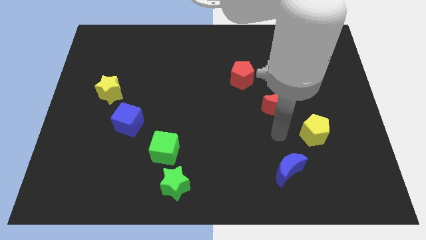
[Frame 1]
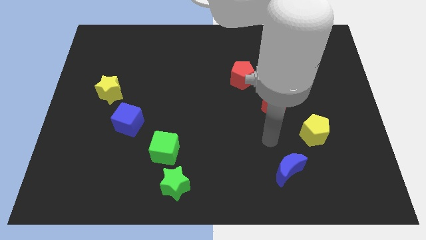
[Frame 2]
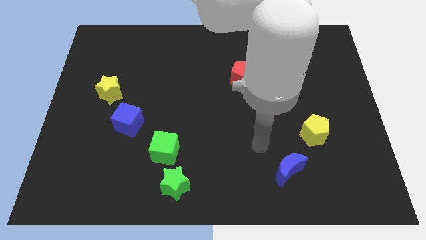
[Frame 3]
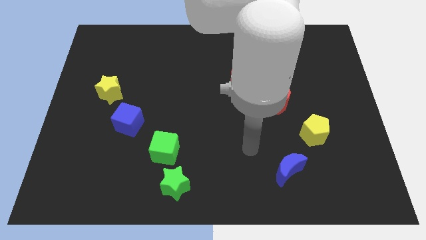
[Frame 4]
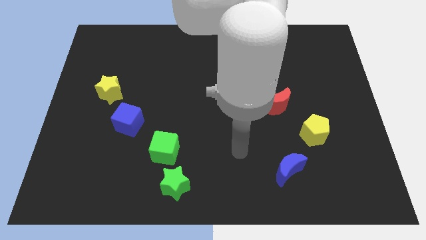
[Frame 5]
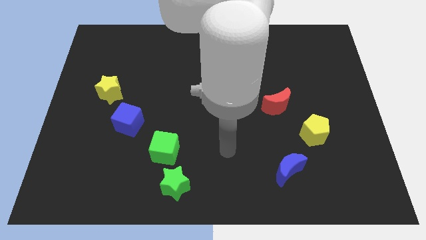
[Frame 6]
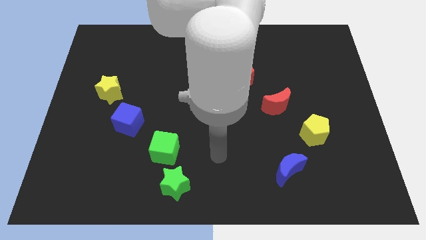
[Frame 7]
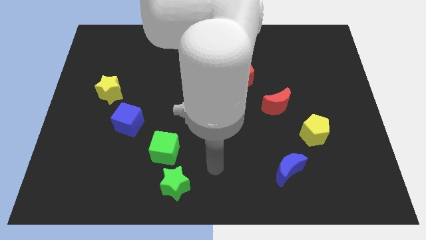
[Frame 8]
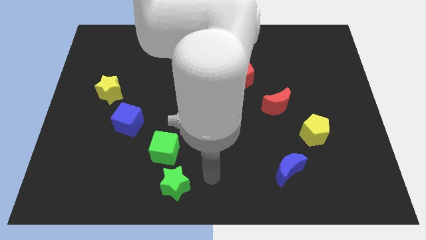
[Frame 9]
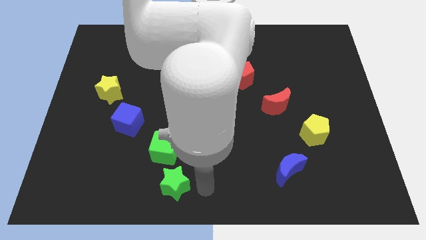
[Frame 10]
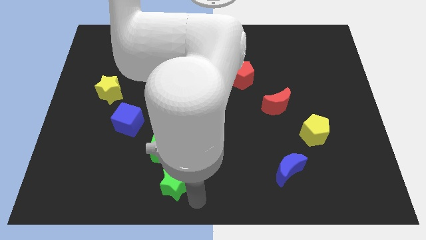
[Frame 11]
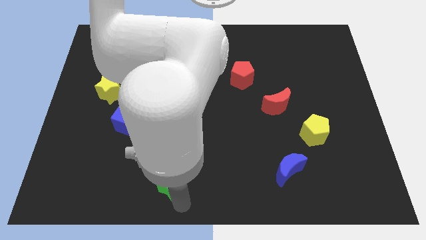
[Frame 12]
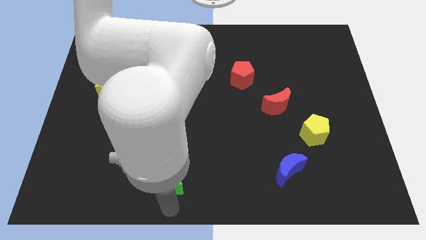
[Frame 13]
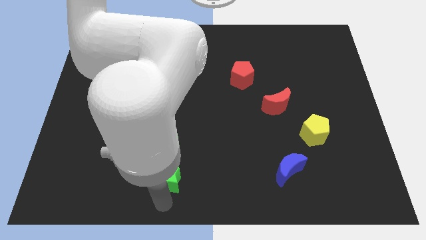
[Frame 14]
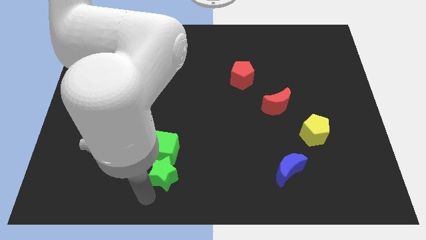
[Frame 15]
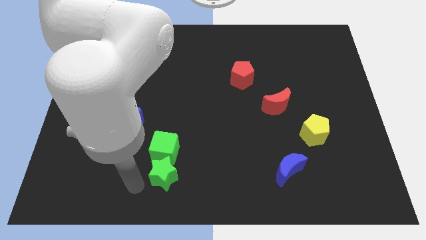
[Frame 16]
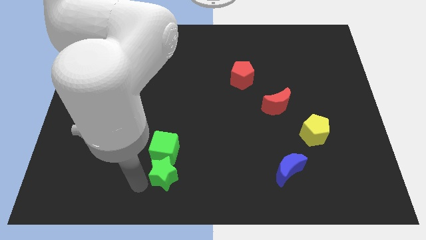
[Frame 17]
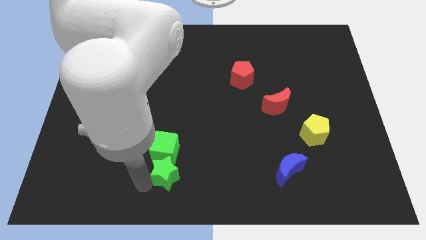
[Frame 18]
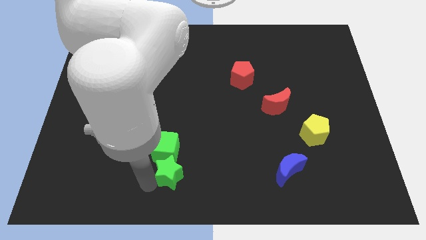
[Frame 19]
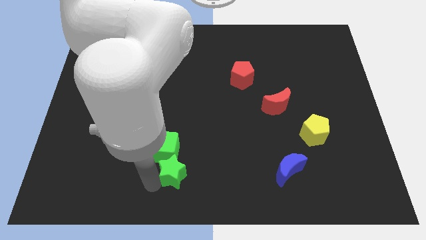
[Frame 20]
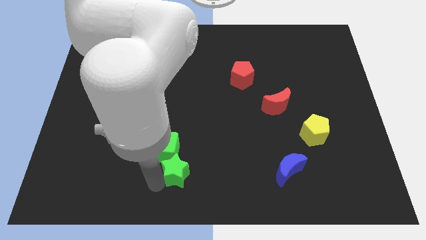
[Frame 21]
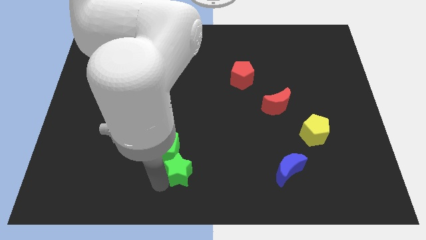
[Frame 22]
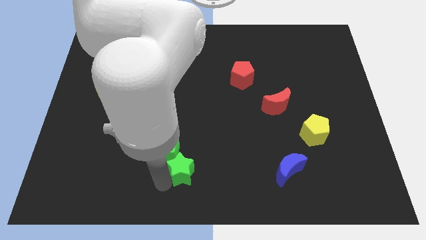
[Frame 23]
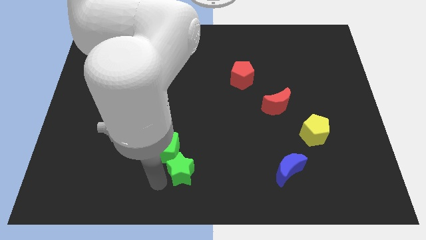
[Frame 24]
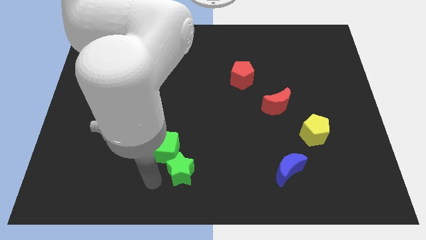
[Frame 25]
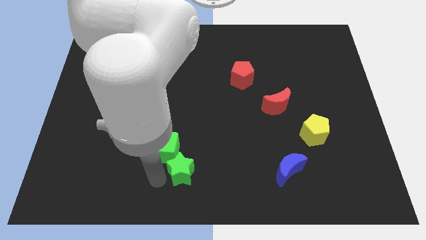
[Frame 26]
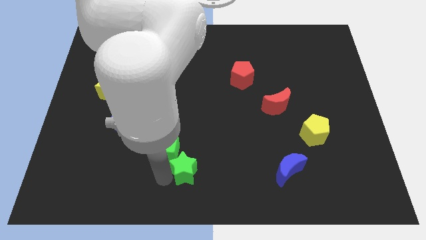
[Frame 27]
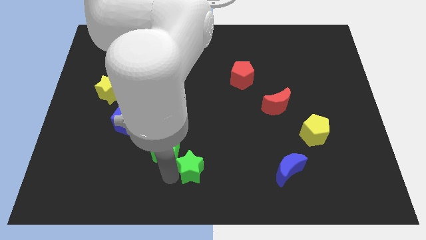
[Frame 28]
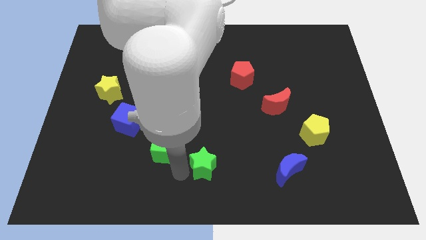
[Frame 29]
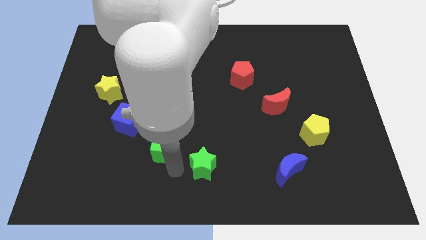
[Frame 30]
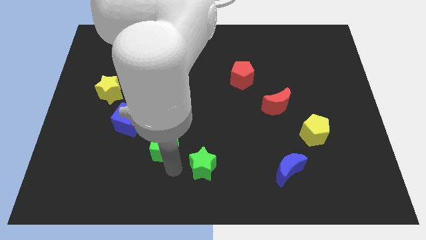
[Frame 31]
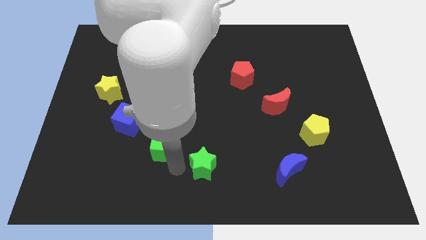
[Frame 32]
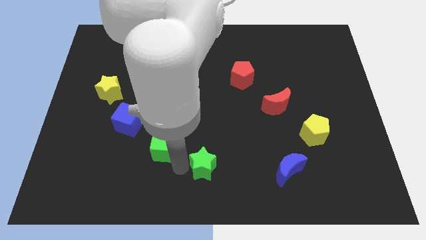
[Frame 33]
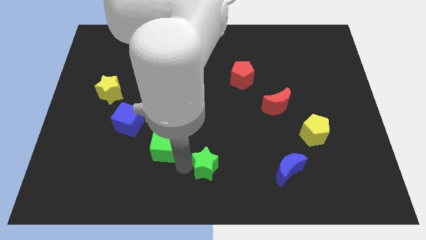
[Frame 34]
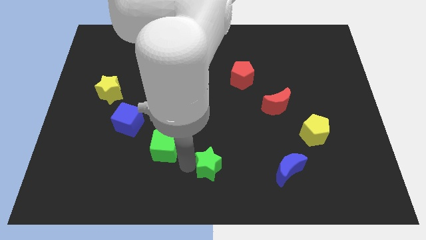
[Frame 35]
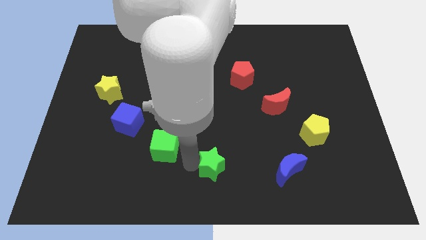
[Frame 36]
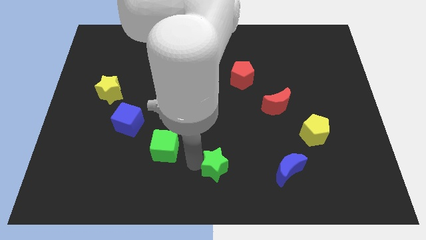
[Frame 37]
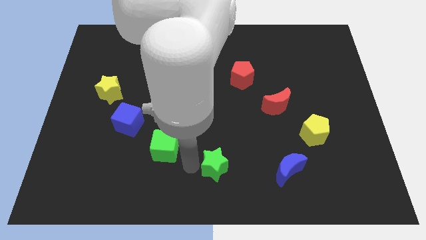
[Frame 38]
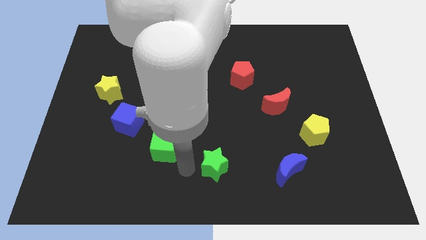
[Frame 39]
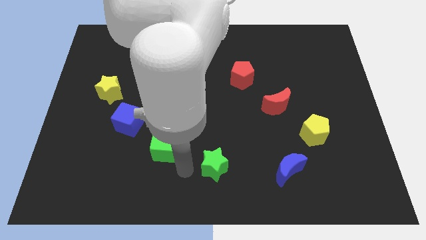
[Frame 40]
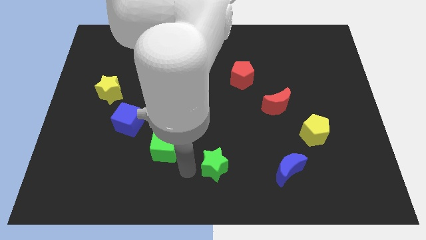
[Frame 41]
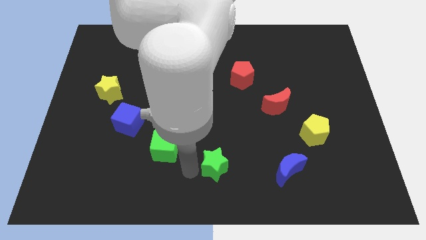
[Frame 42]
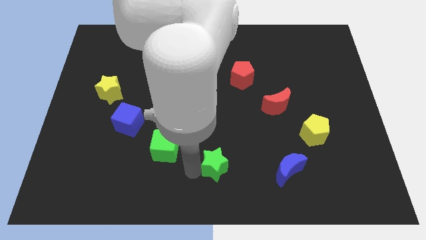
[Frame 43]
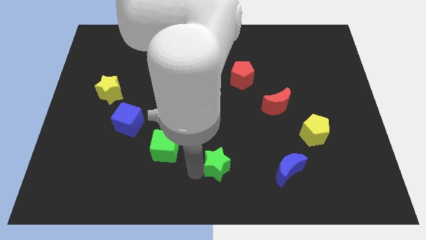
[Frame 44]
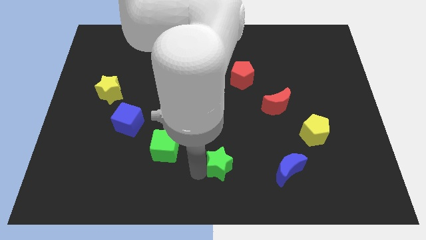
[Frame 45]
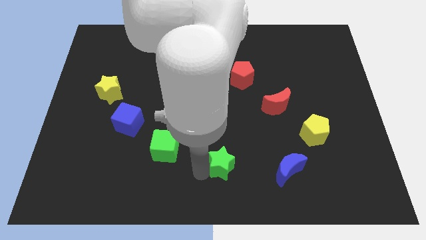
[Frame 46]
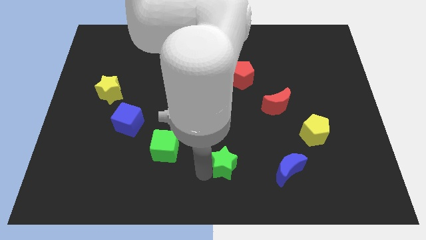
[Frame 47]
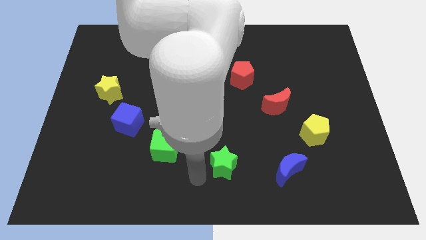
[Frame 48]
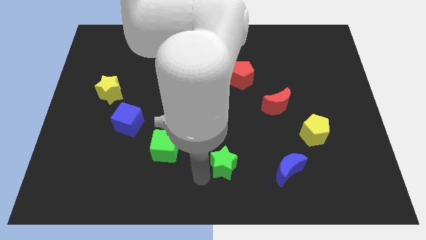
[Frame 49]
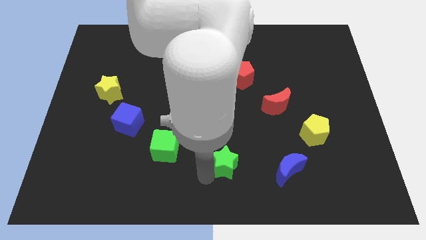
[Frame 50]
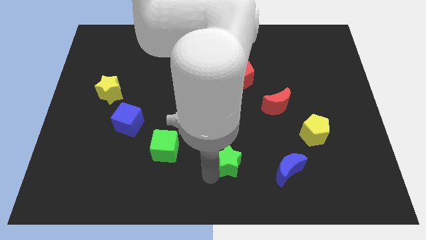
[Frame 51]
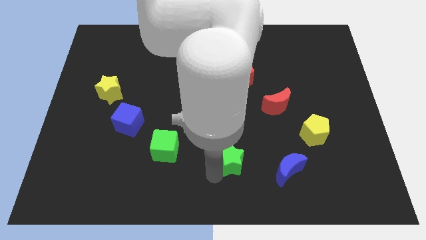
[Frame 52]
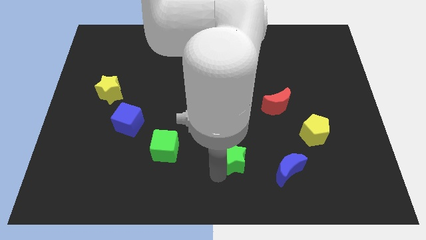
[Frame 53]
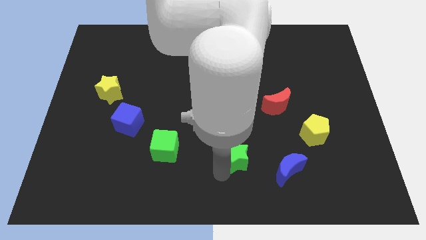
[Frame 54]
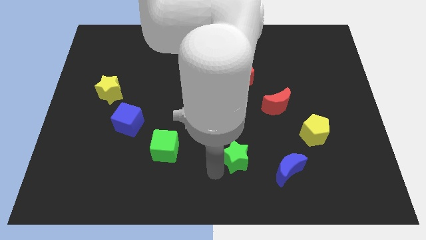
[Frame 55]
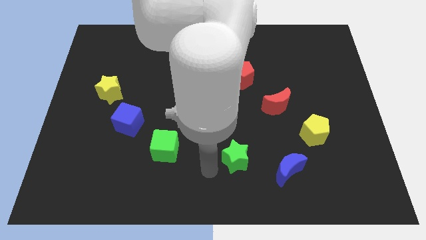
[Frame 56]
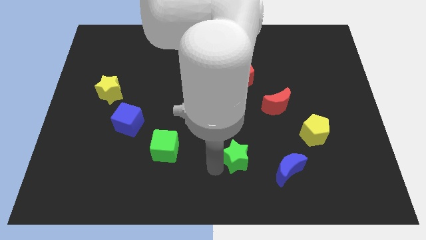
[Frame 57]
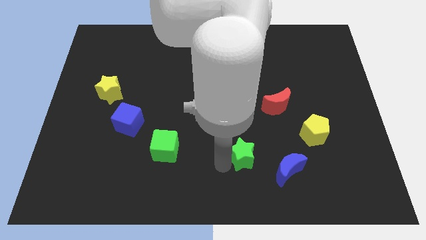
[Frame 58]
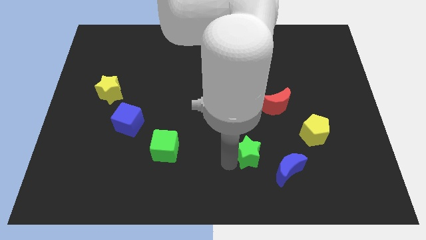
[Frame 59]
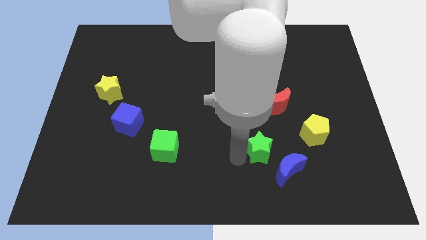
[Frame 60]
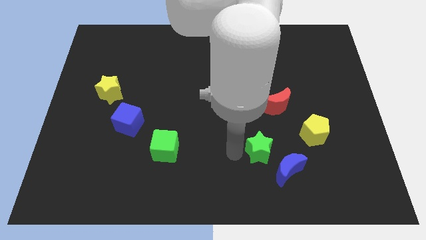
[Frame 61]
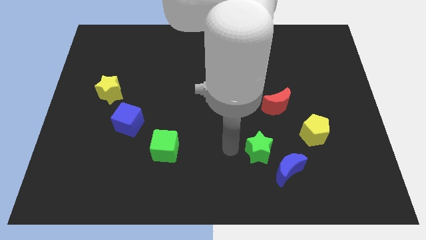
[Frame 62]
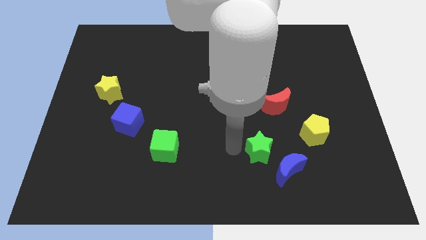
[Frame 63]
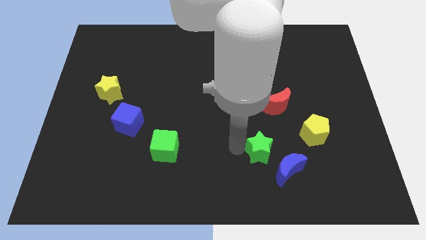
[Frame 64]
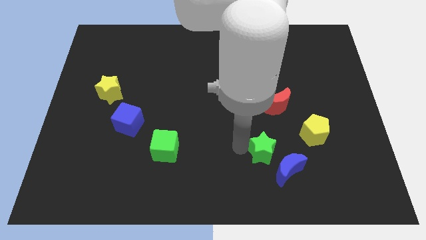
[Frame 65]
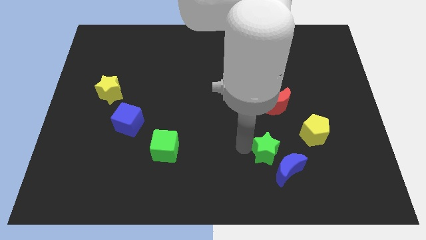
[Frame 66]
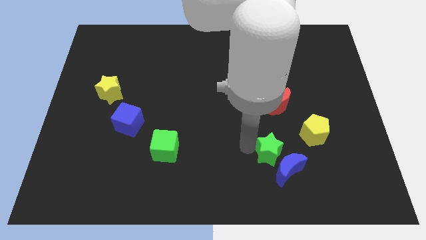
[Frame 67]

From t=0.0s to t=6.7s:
push the green star diagonally down and to the left of the yellow pentagon
